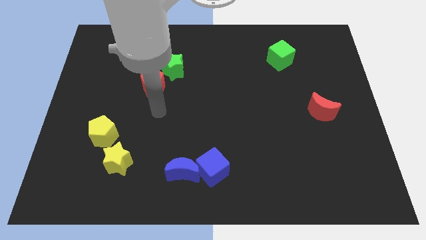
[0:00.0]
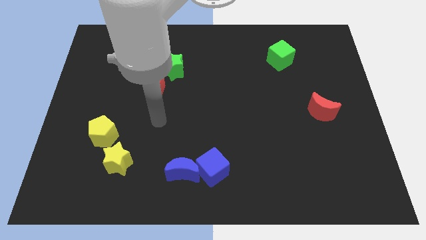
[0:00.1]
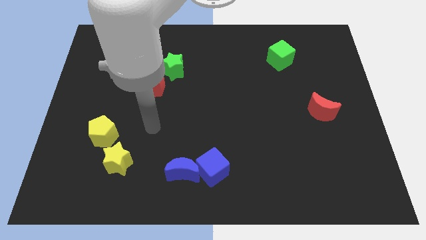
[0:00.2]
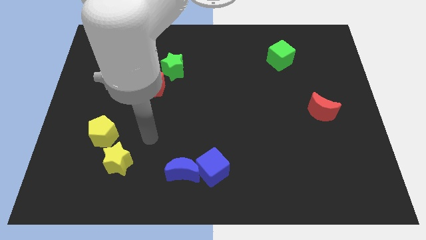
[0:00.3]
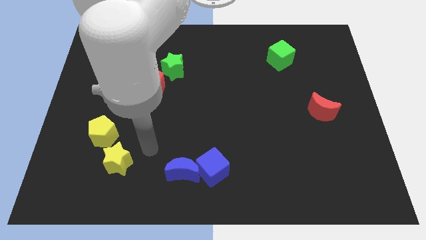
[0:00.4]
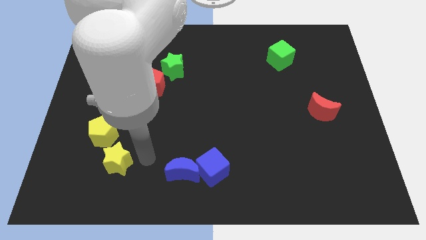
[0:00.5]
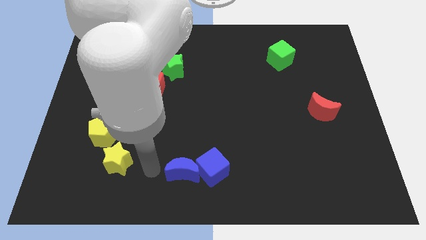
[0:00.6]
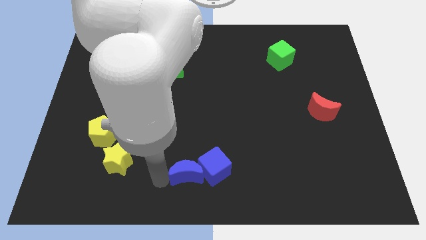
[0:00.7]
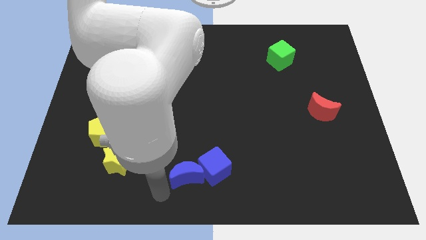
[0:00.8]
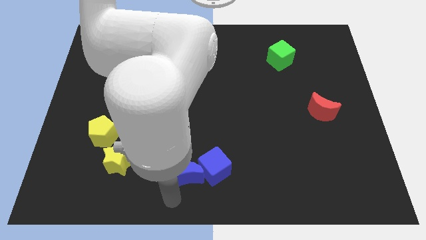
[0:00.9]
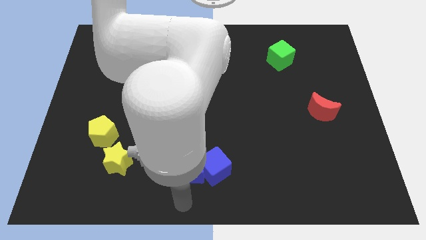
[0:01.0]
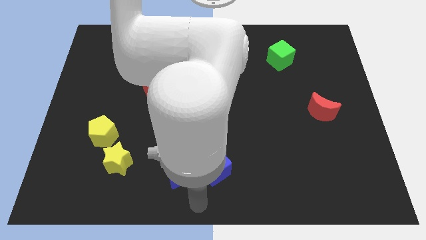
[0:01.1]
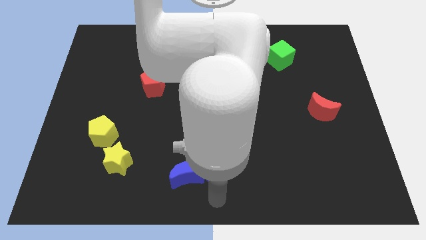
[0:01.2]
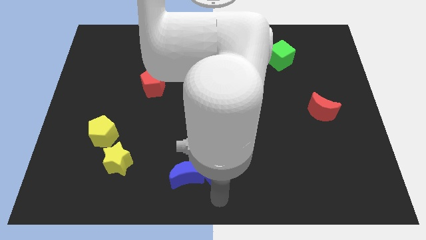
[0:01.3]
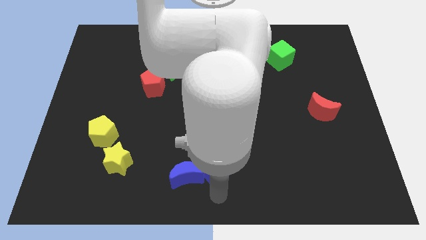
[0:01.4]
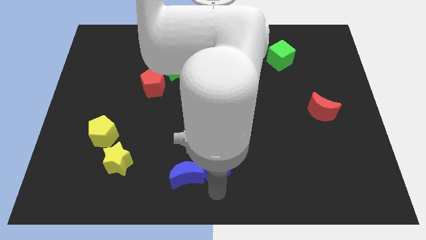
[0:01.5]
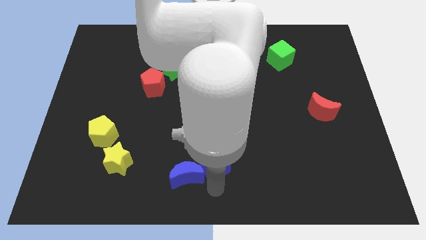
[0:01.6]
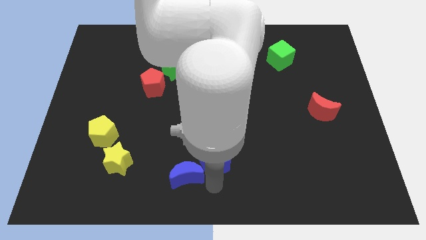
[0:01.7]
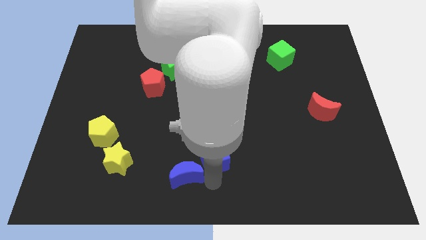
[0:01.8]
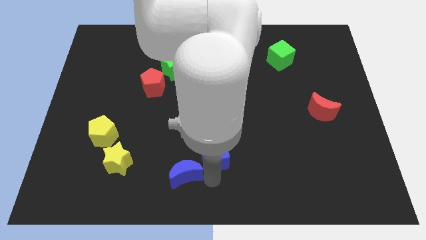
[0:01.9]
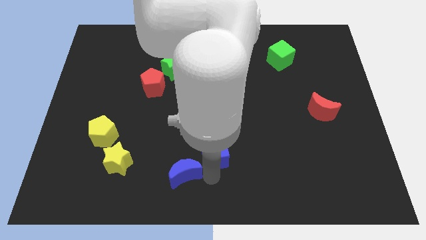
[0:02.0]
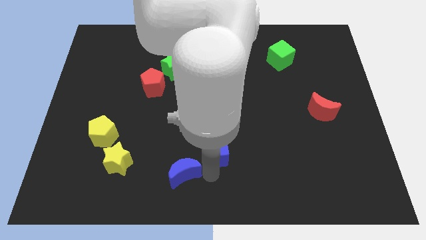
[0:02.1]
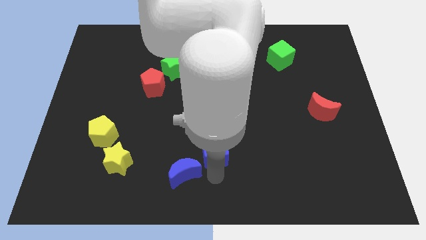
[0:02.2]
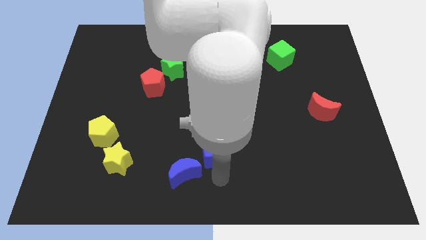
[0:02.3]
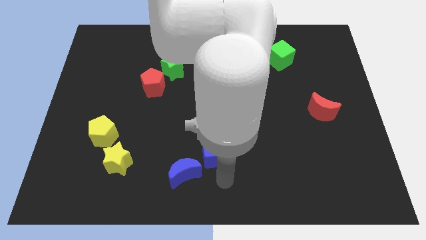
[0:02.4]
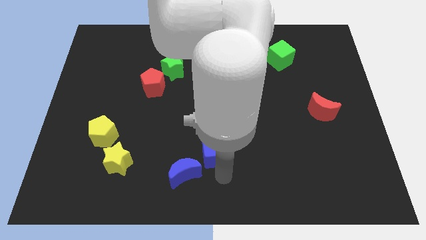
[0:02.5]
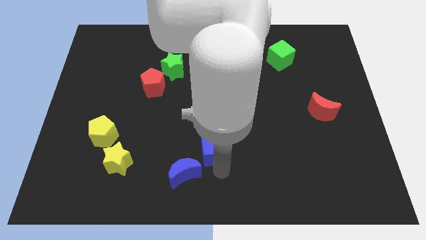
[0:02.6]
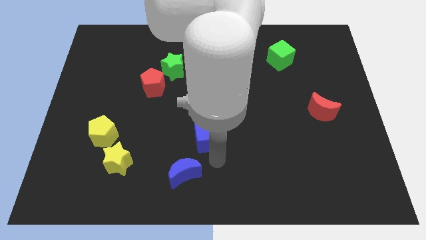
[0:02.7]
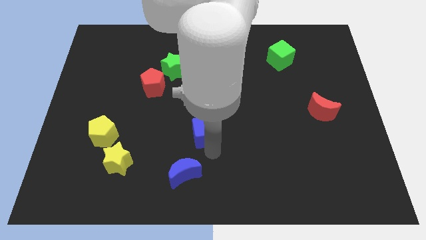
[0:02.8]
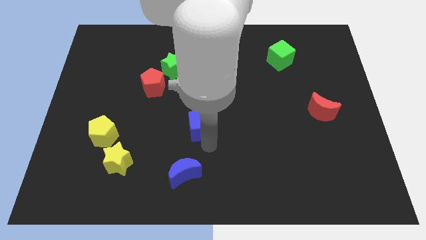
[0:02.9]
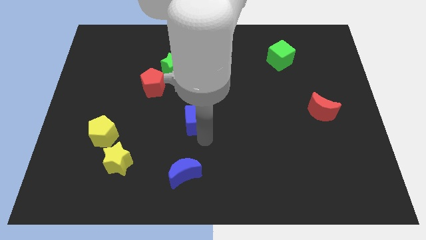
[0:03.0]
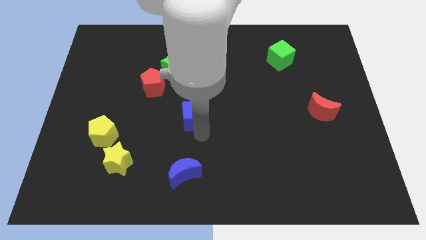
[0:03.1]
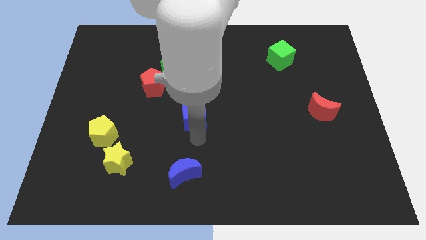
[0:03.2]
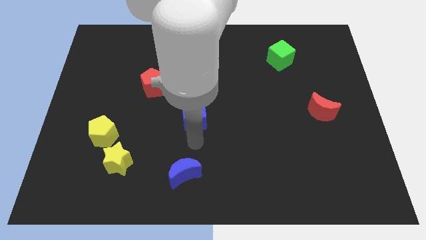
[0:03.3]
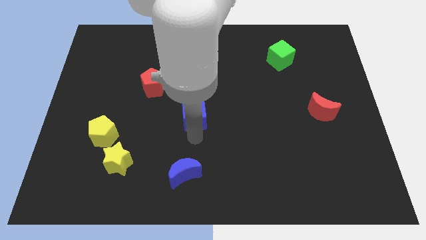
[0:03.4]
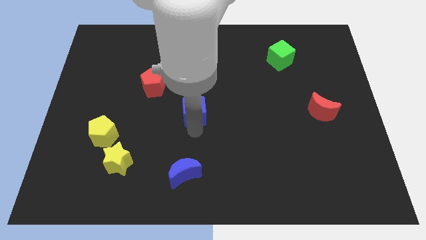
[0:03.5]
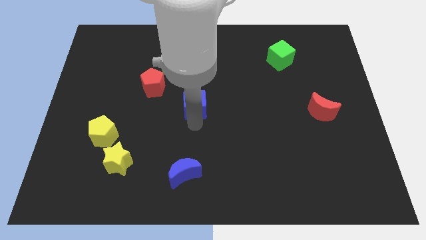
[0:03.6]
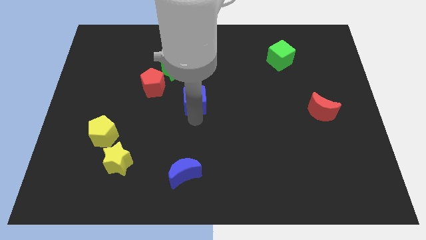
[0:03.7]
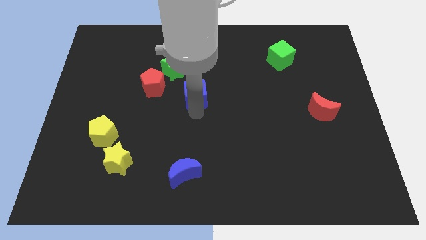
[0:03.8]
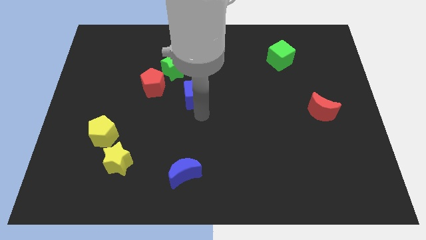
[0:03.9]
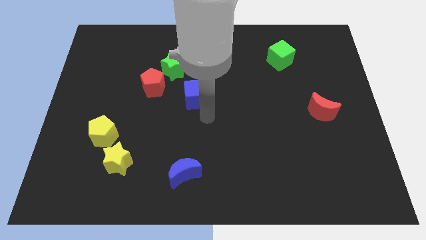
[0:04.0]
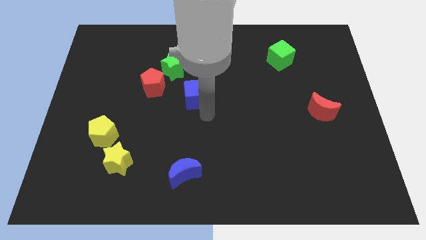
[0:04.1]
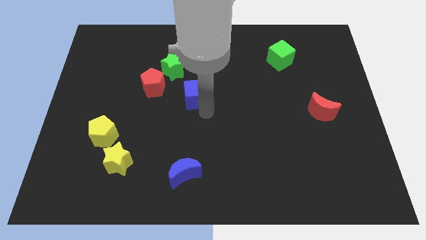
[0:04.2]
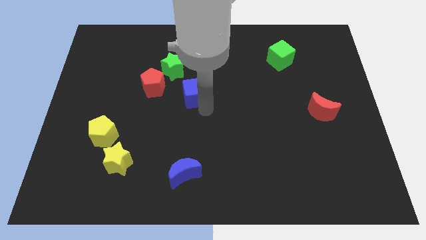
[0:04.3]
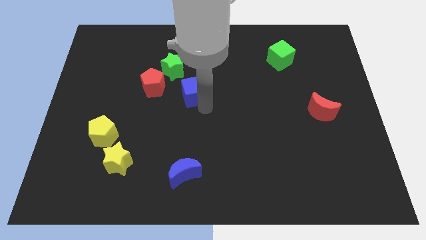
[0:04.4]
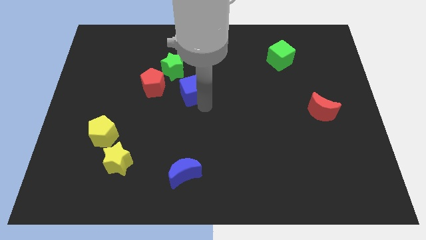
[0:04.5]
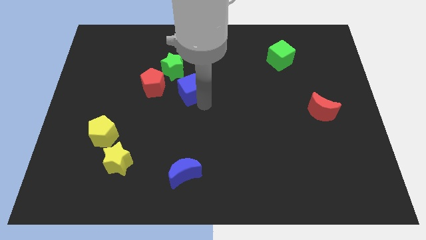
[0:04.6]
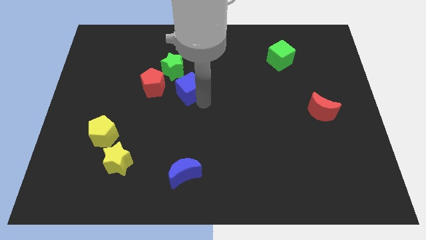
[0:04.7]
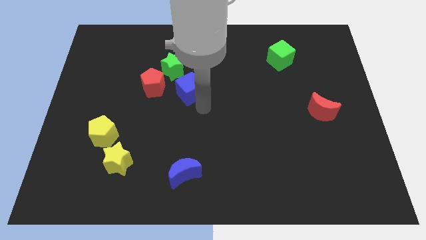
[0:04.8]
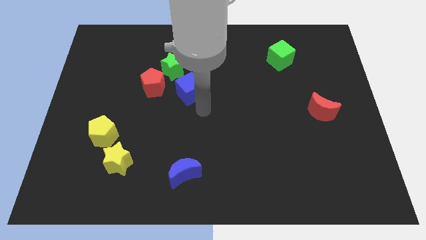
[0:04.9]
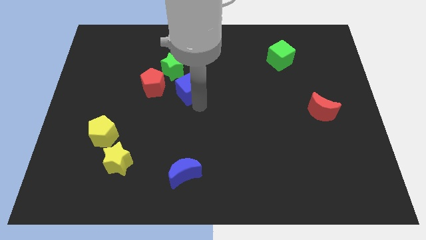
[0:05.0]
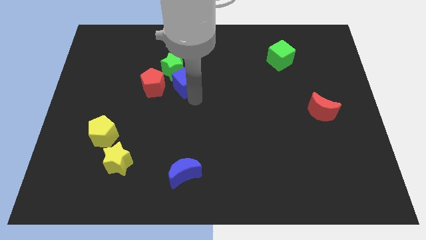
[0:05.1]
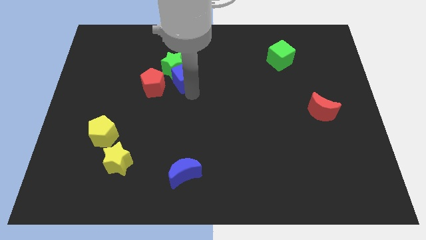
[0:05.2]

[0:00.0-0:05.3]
move the blue cube next to the green star

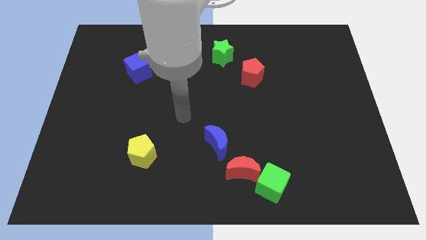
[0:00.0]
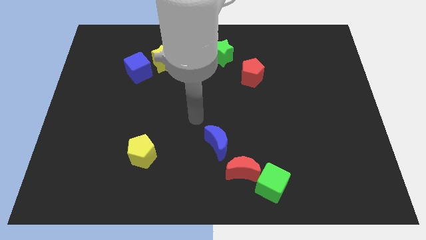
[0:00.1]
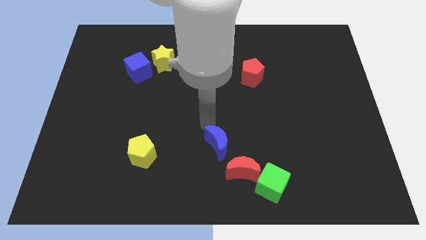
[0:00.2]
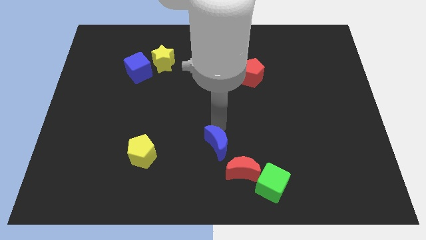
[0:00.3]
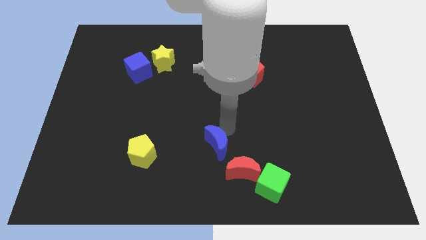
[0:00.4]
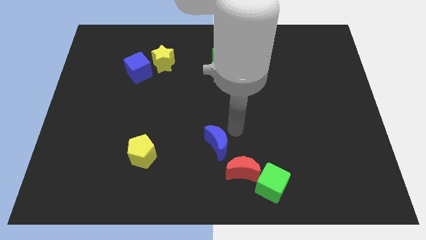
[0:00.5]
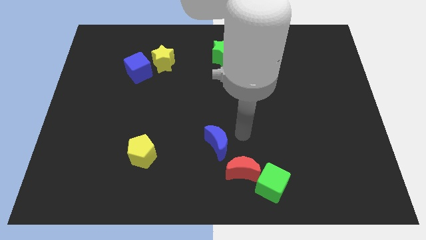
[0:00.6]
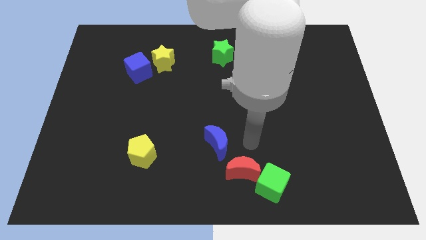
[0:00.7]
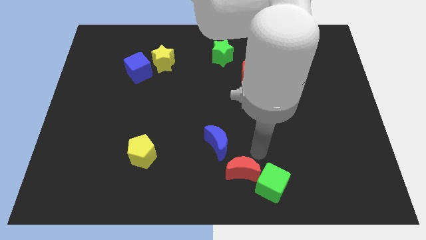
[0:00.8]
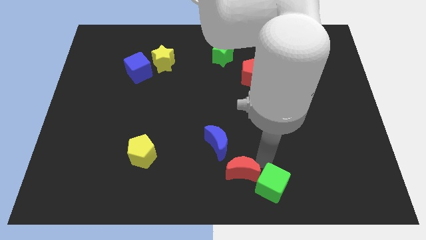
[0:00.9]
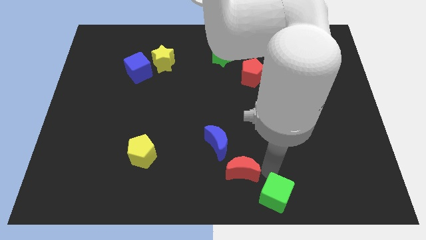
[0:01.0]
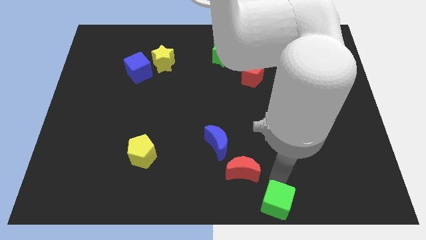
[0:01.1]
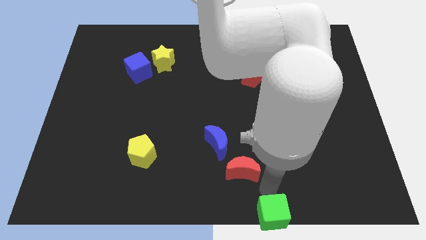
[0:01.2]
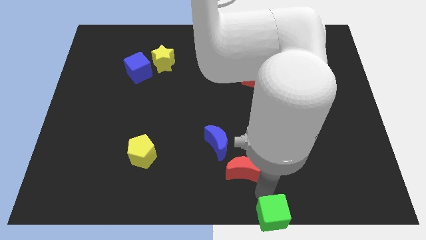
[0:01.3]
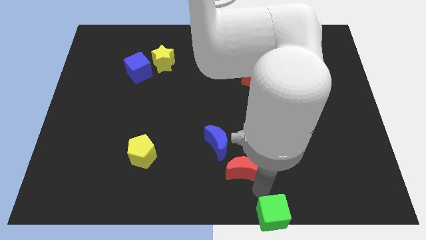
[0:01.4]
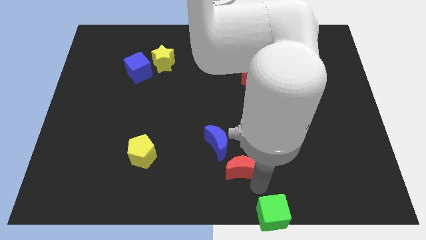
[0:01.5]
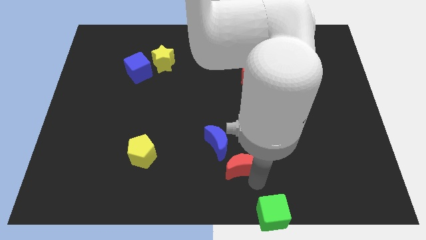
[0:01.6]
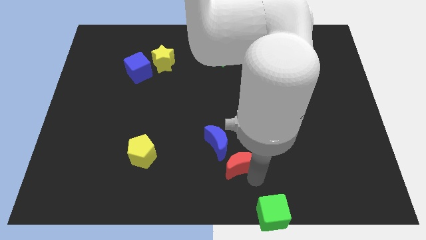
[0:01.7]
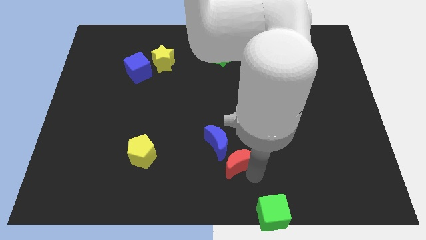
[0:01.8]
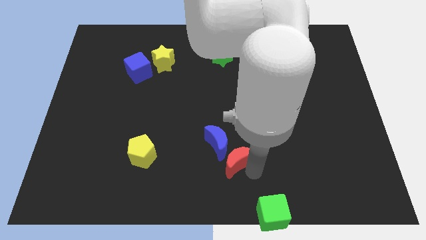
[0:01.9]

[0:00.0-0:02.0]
push the red moon towards the blue moon
